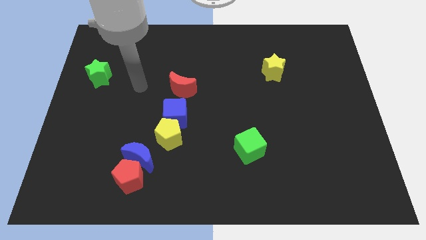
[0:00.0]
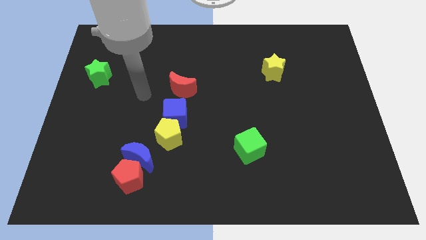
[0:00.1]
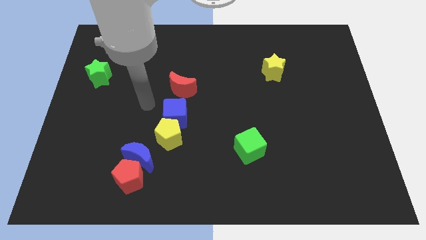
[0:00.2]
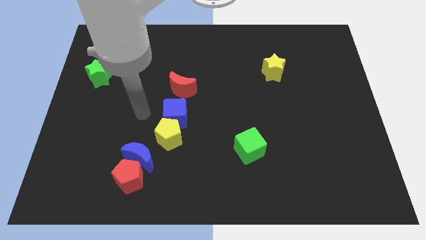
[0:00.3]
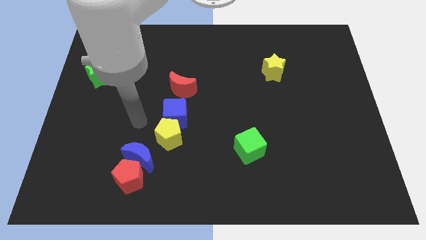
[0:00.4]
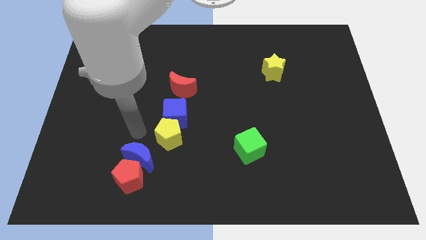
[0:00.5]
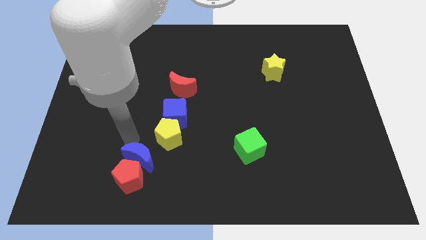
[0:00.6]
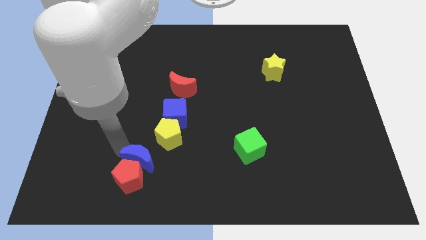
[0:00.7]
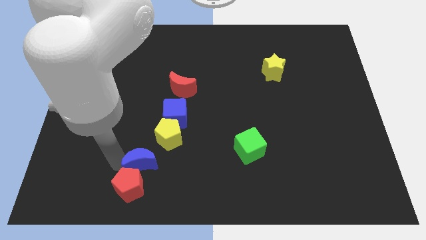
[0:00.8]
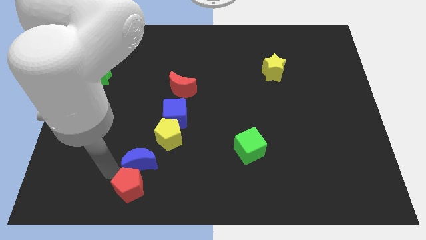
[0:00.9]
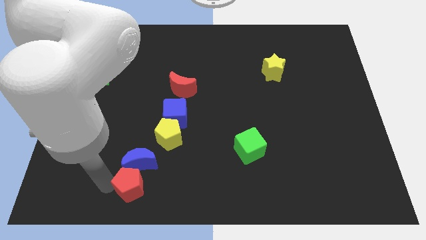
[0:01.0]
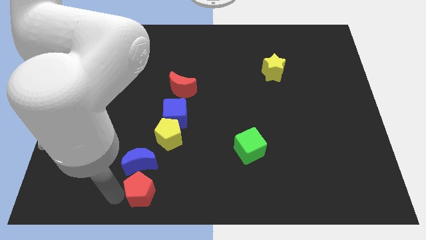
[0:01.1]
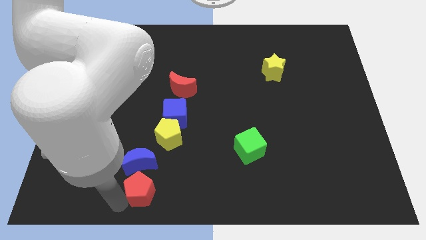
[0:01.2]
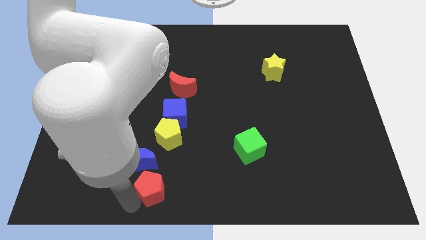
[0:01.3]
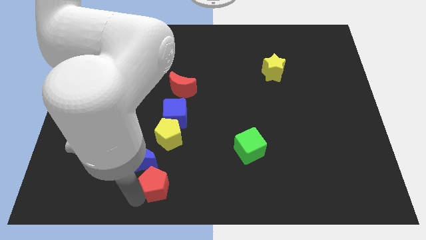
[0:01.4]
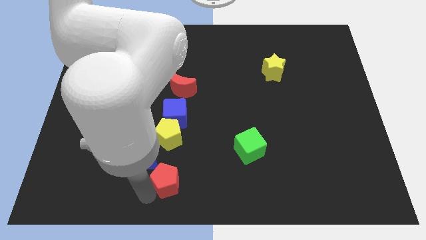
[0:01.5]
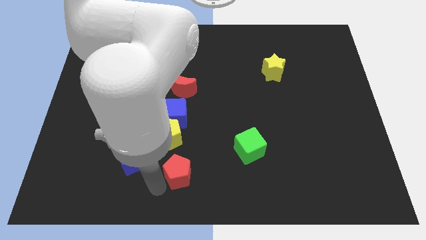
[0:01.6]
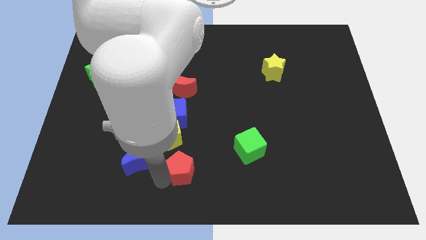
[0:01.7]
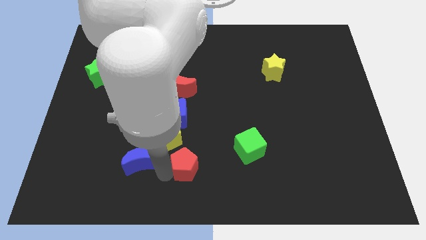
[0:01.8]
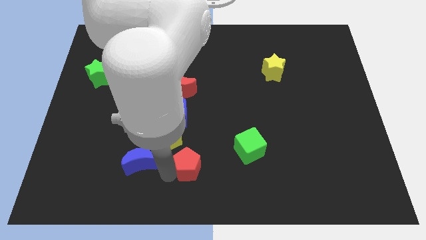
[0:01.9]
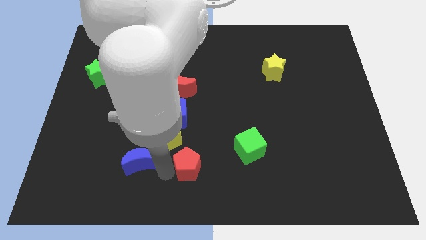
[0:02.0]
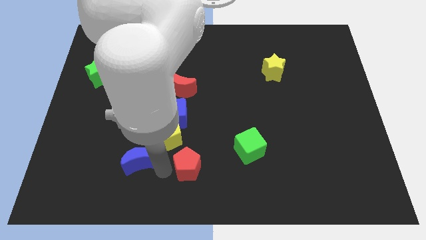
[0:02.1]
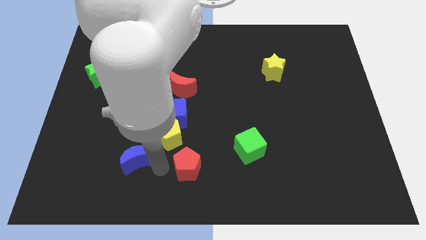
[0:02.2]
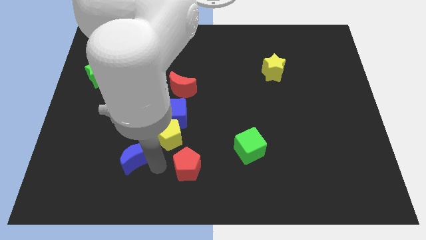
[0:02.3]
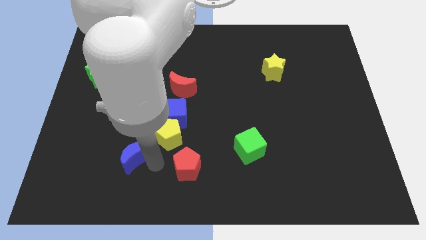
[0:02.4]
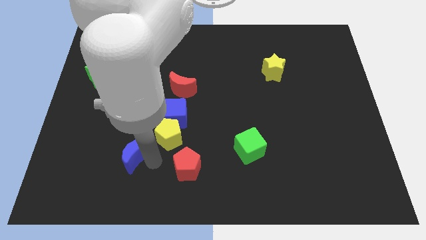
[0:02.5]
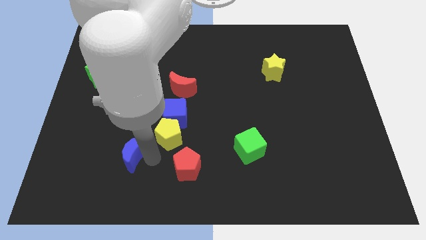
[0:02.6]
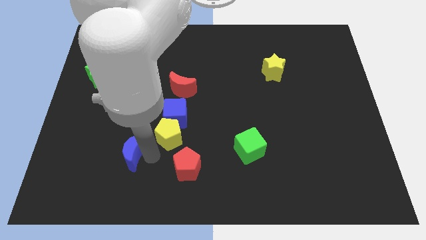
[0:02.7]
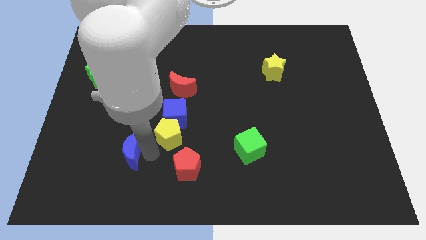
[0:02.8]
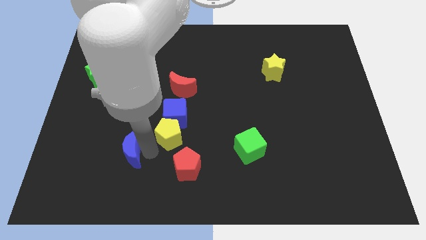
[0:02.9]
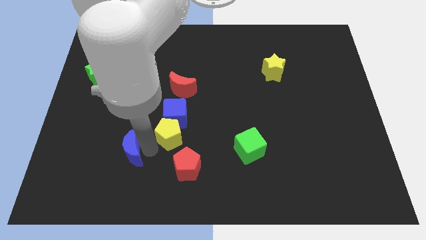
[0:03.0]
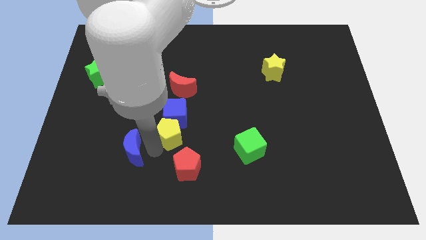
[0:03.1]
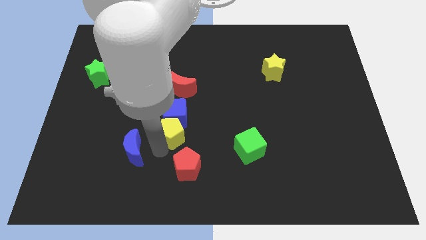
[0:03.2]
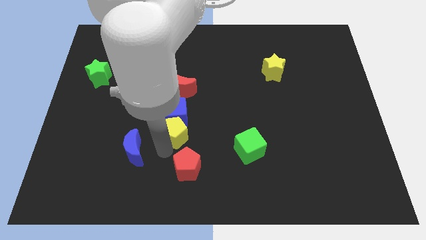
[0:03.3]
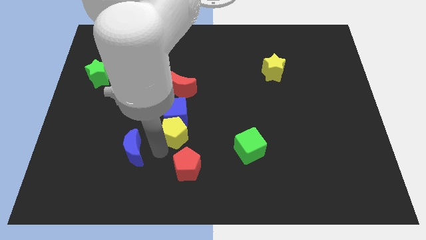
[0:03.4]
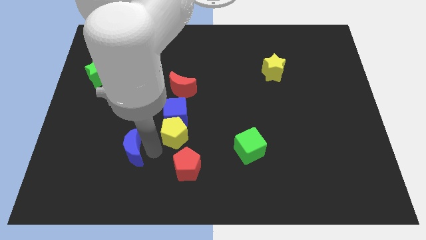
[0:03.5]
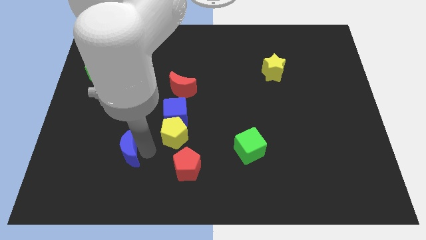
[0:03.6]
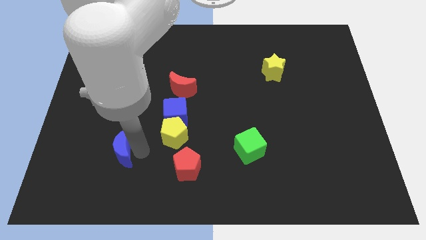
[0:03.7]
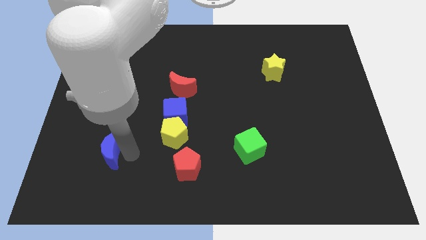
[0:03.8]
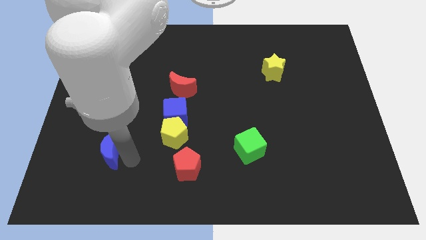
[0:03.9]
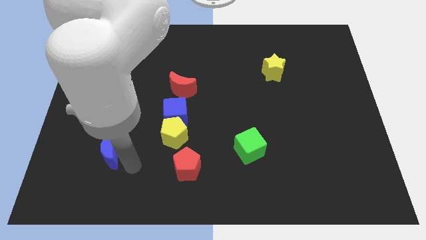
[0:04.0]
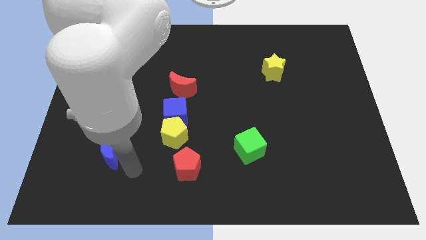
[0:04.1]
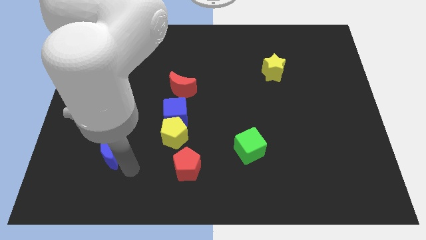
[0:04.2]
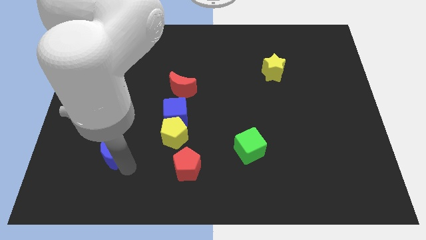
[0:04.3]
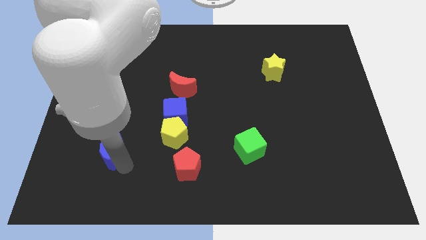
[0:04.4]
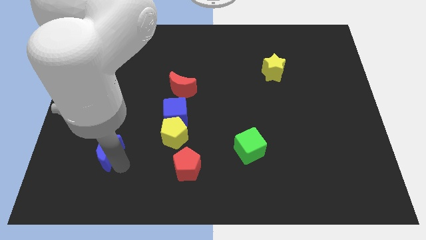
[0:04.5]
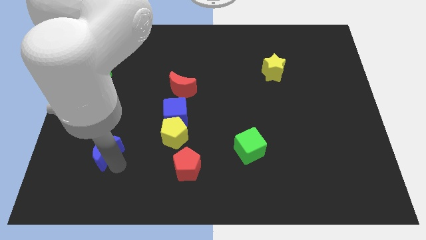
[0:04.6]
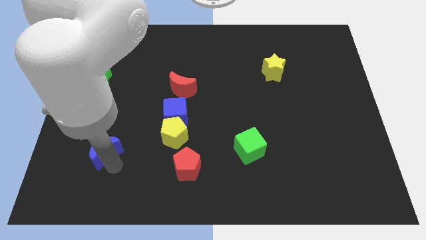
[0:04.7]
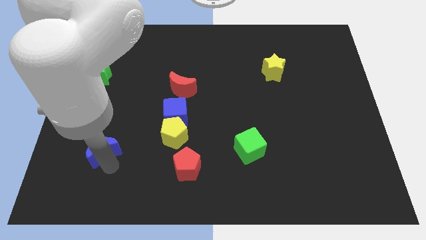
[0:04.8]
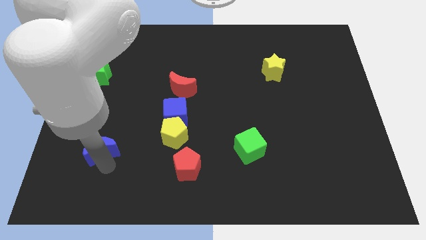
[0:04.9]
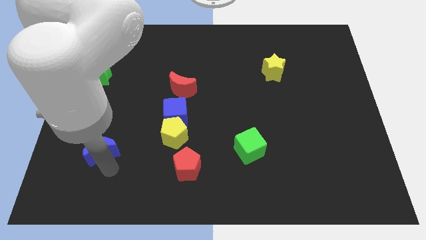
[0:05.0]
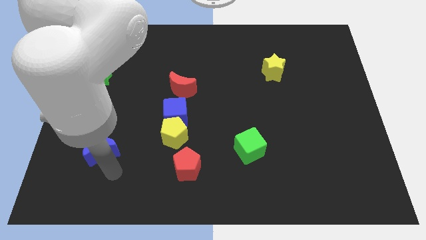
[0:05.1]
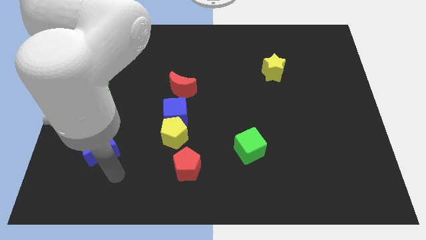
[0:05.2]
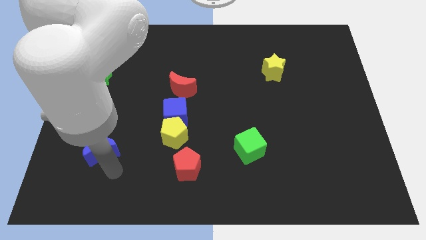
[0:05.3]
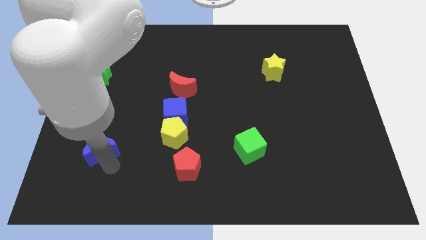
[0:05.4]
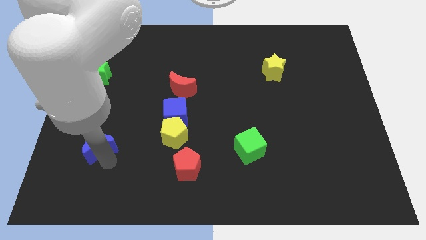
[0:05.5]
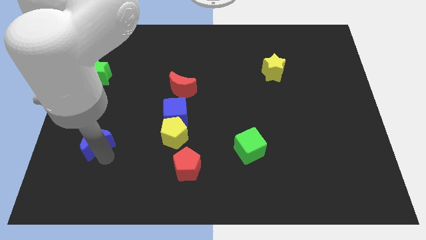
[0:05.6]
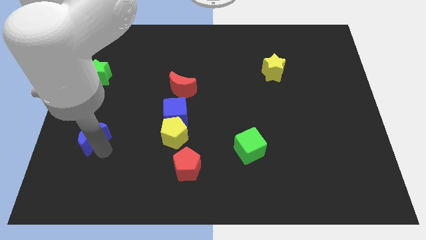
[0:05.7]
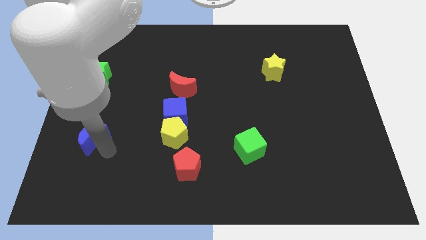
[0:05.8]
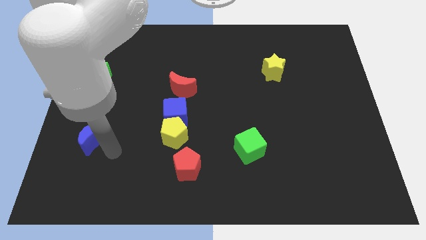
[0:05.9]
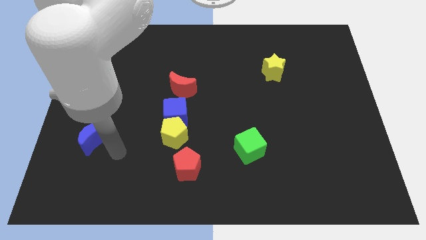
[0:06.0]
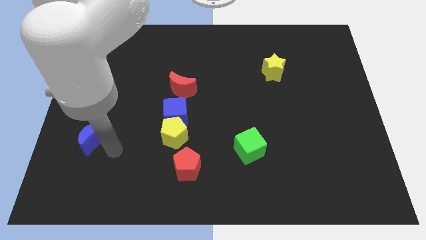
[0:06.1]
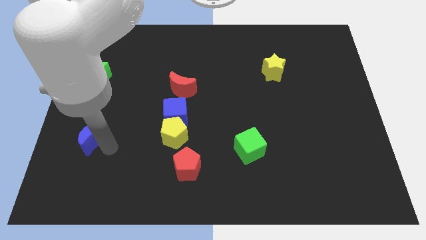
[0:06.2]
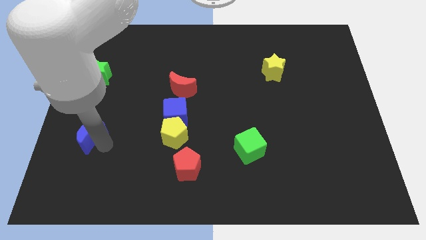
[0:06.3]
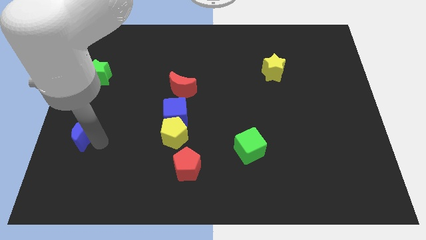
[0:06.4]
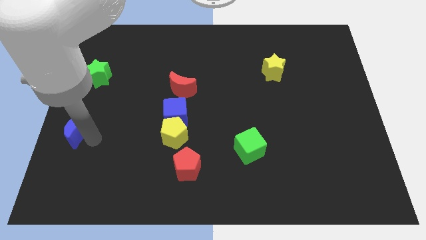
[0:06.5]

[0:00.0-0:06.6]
put the blue moon to the left side of the board
